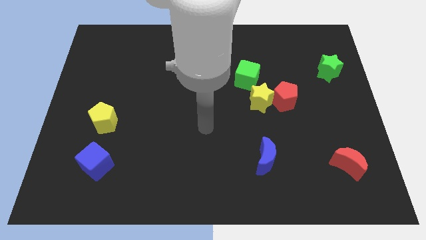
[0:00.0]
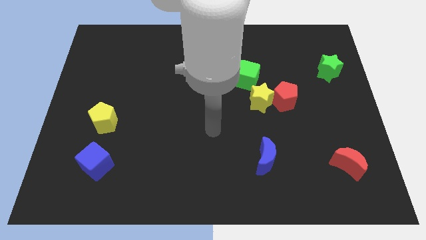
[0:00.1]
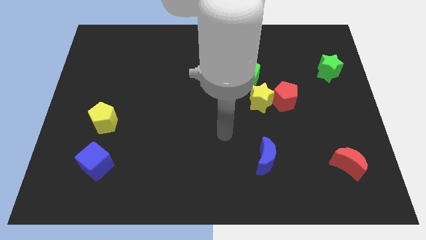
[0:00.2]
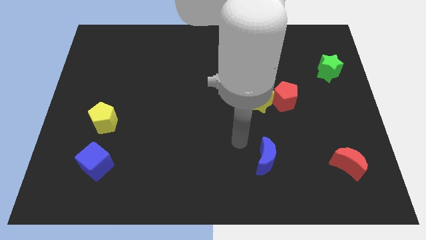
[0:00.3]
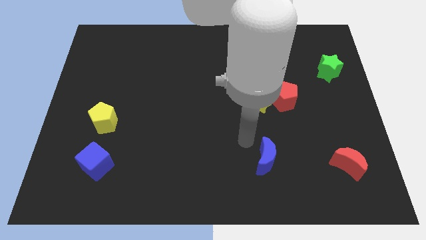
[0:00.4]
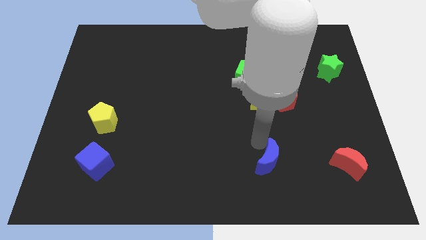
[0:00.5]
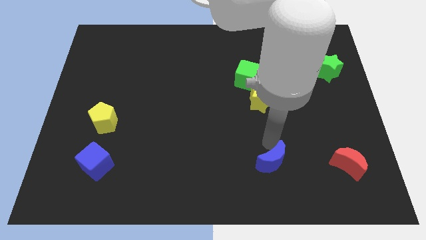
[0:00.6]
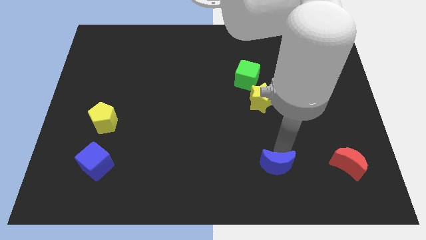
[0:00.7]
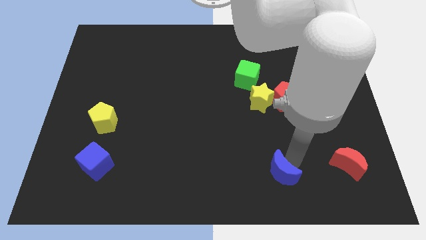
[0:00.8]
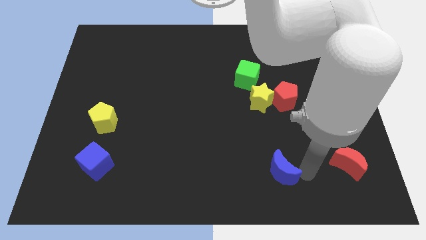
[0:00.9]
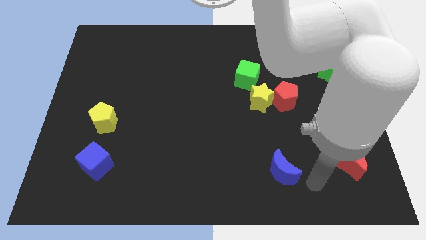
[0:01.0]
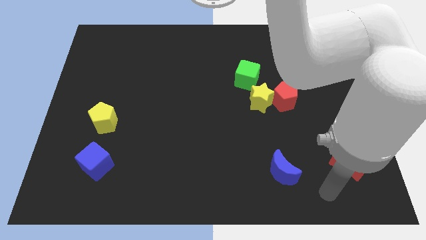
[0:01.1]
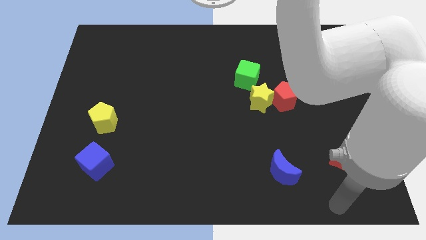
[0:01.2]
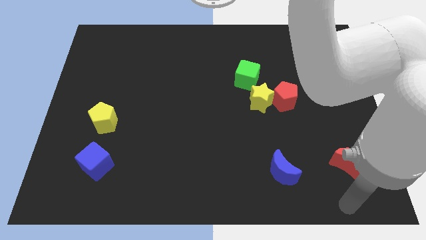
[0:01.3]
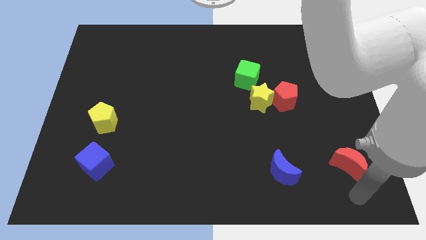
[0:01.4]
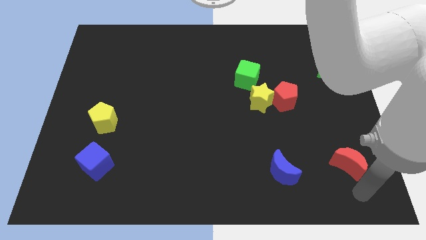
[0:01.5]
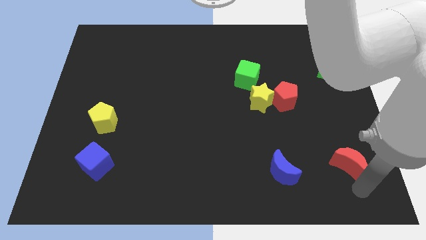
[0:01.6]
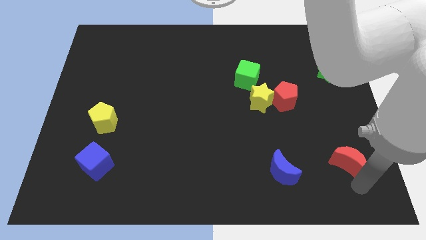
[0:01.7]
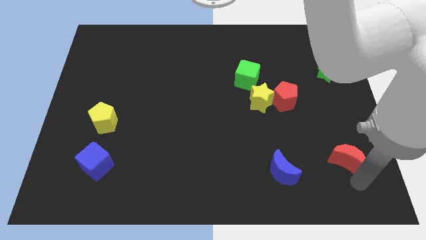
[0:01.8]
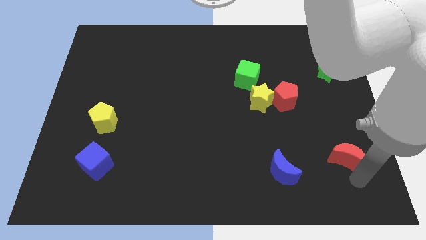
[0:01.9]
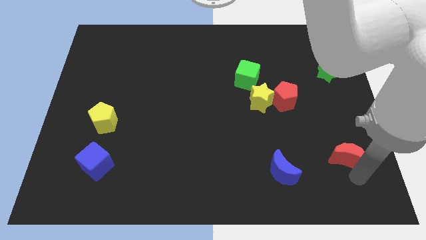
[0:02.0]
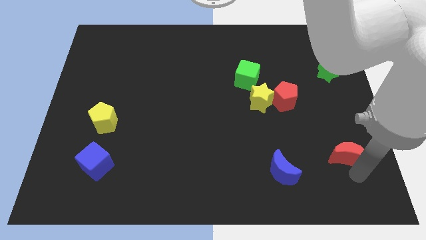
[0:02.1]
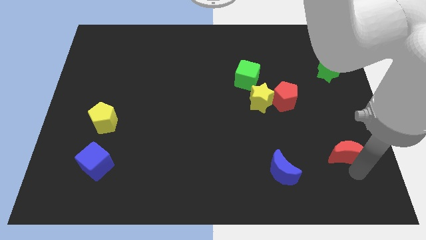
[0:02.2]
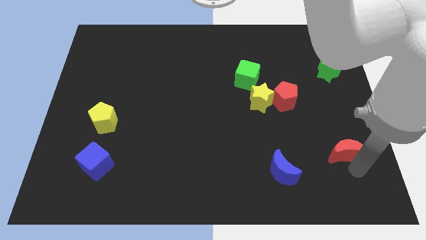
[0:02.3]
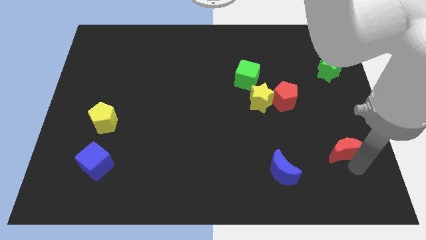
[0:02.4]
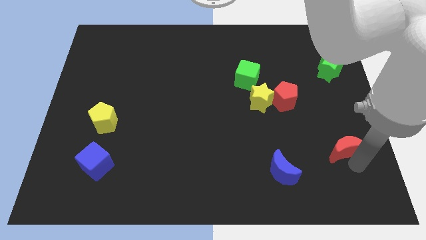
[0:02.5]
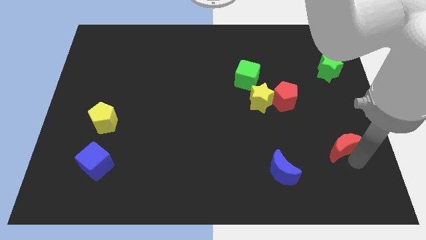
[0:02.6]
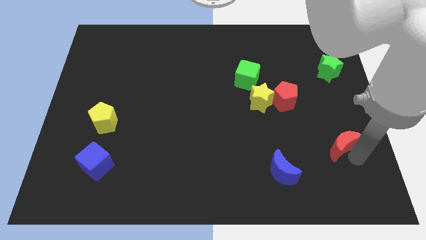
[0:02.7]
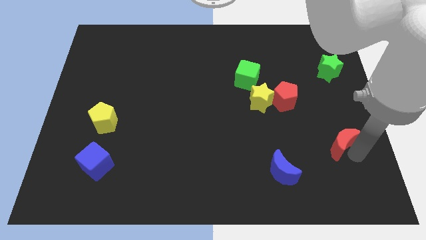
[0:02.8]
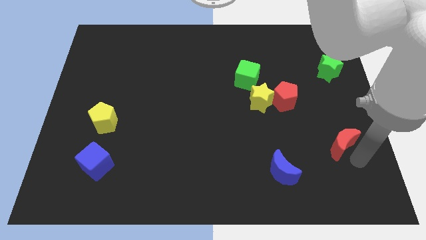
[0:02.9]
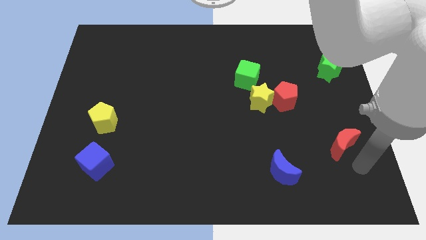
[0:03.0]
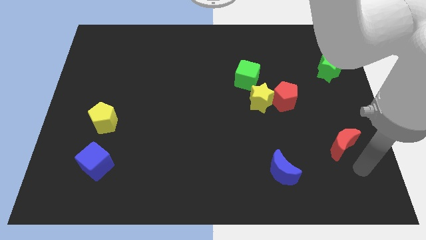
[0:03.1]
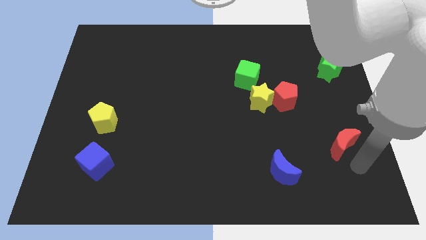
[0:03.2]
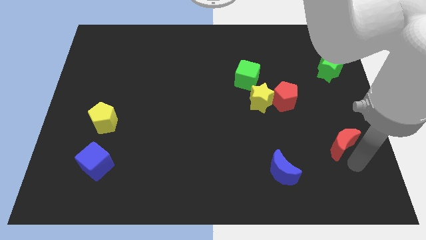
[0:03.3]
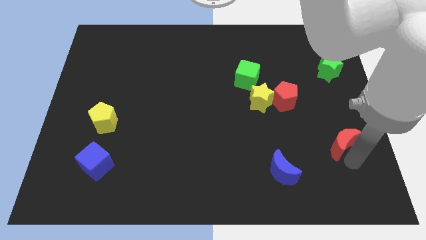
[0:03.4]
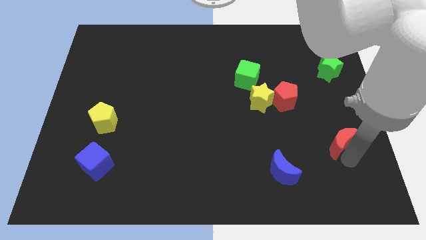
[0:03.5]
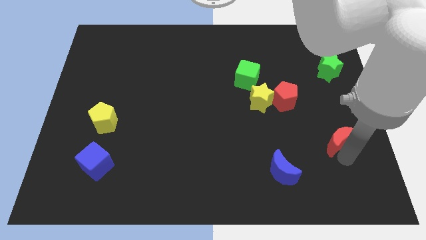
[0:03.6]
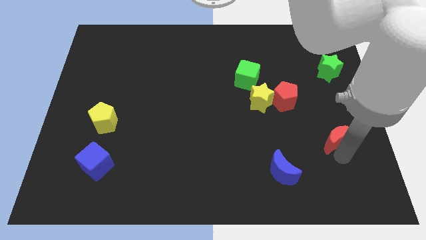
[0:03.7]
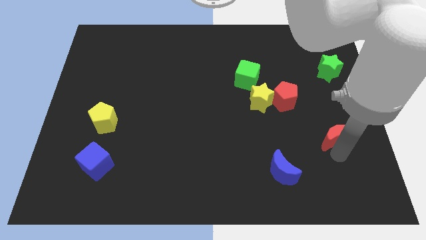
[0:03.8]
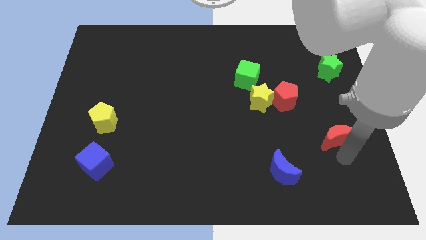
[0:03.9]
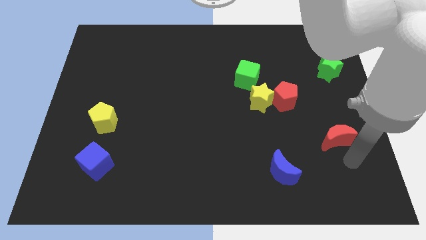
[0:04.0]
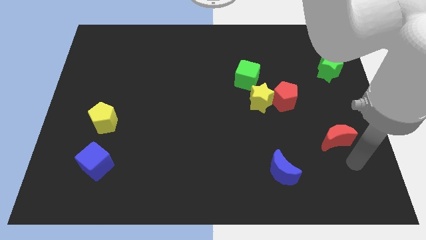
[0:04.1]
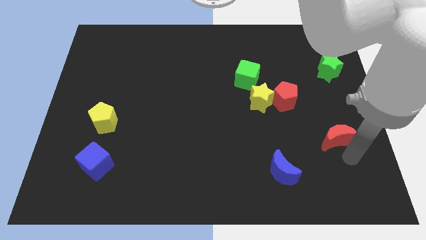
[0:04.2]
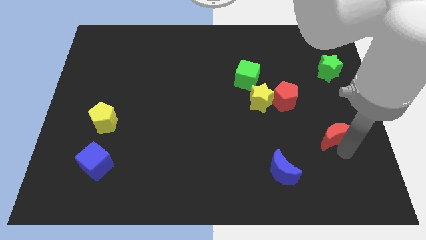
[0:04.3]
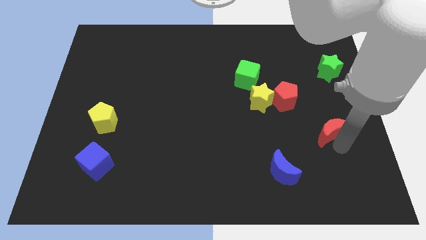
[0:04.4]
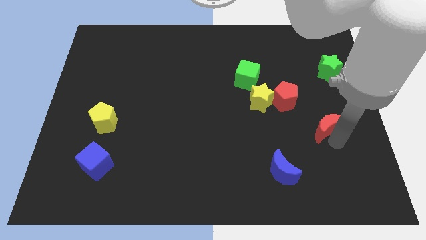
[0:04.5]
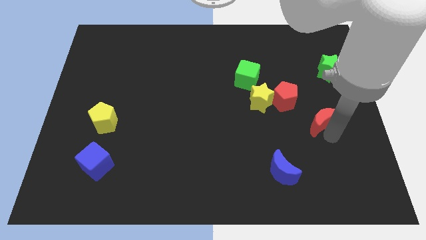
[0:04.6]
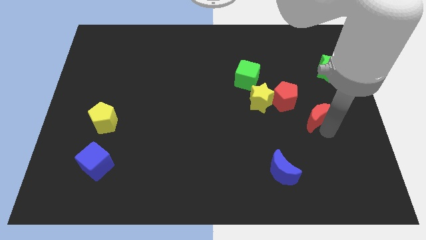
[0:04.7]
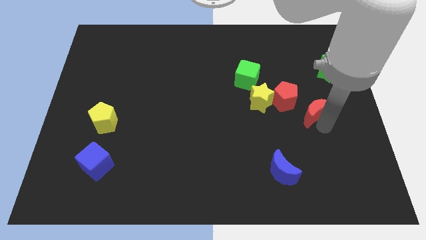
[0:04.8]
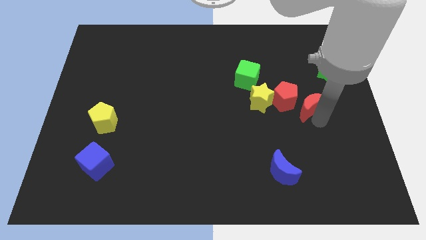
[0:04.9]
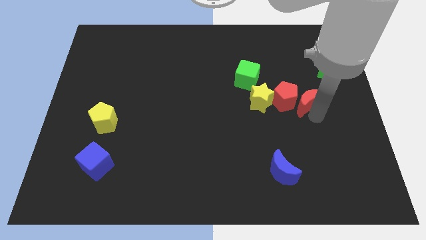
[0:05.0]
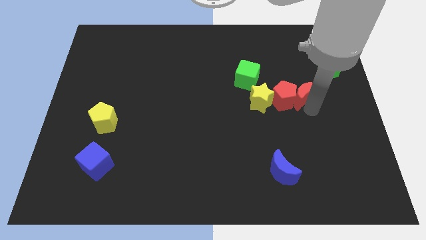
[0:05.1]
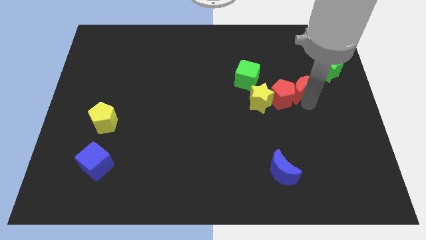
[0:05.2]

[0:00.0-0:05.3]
slide the red moon just right of the green cube

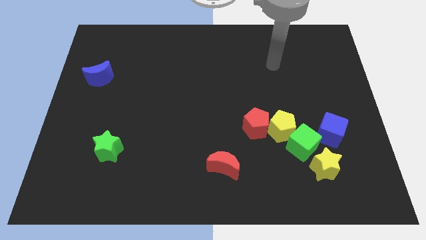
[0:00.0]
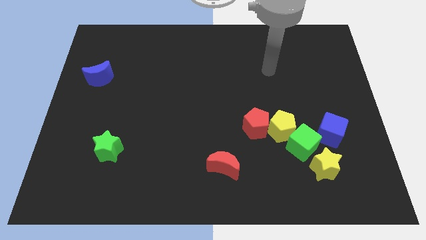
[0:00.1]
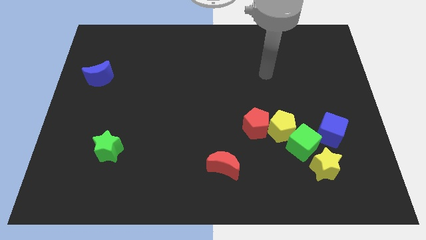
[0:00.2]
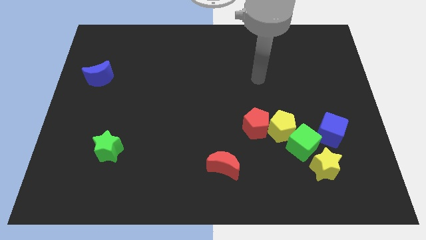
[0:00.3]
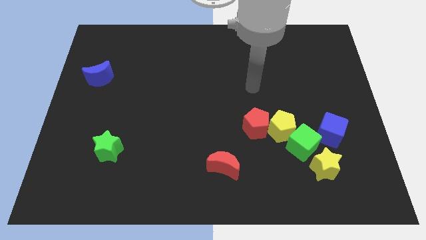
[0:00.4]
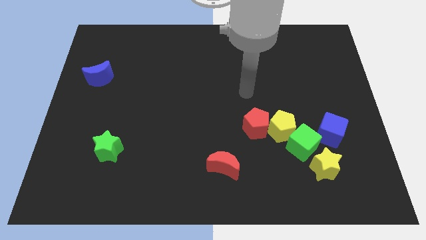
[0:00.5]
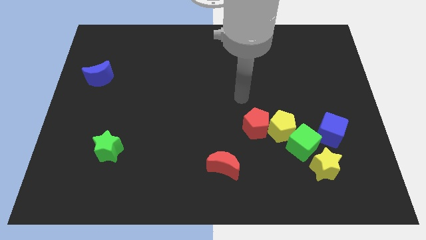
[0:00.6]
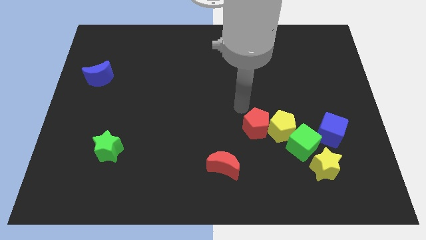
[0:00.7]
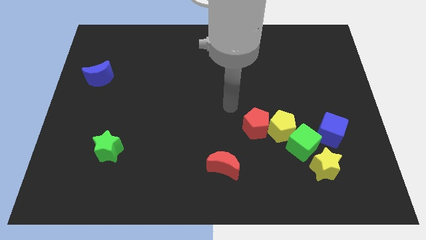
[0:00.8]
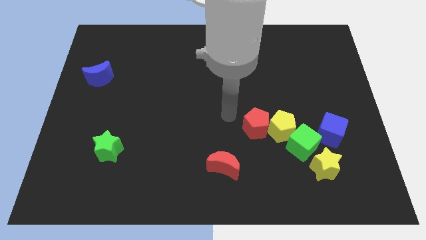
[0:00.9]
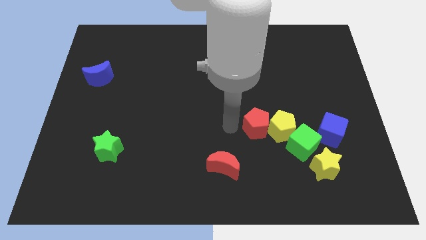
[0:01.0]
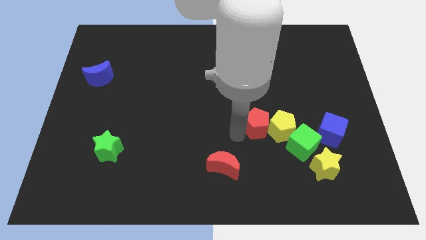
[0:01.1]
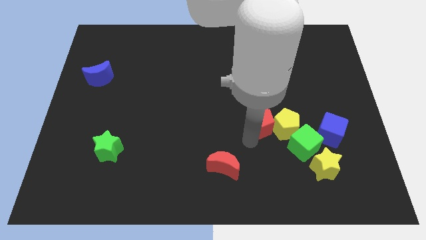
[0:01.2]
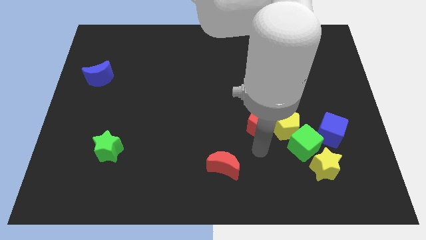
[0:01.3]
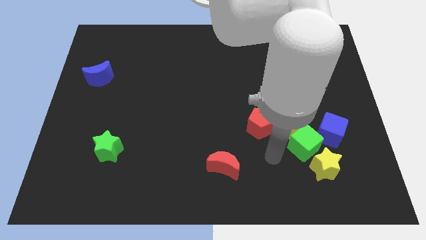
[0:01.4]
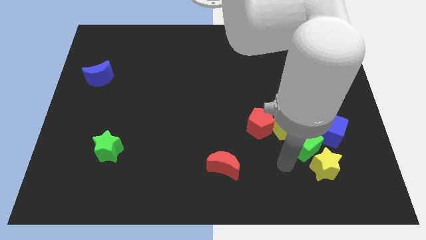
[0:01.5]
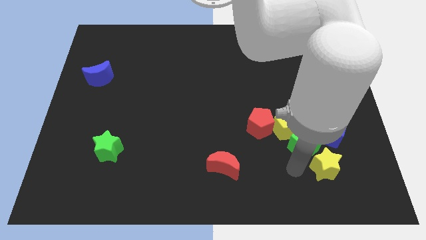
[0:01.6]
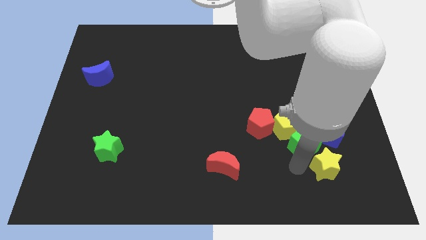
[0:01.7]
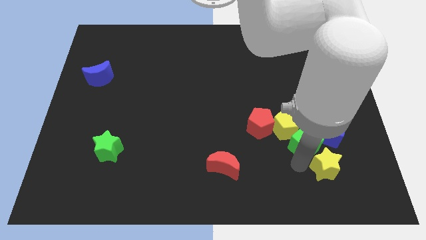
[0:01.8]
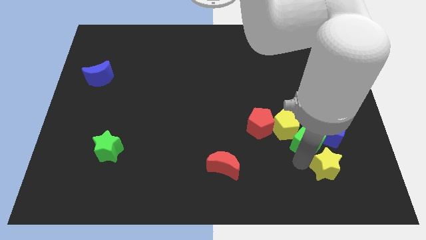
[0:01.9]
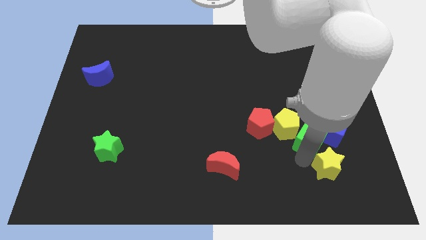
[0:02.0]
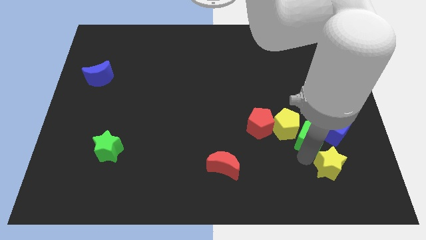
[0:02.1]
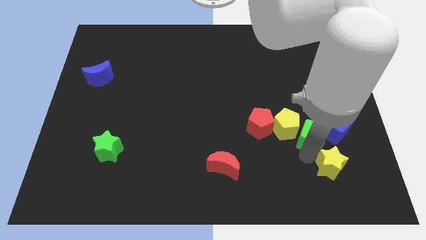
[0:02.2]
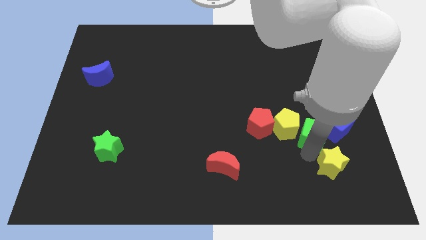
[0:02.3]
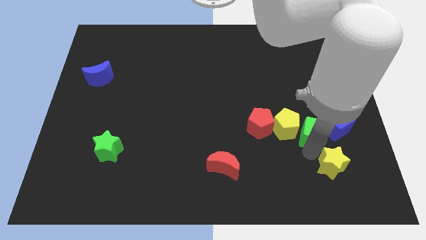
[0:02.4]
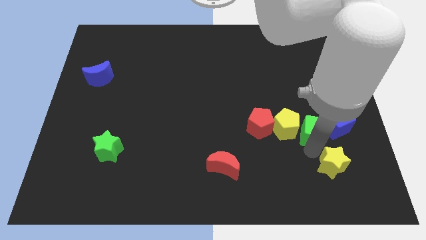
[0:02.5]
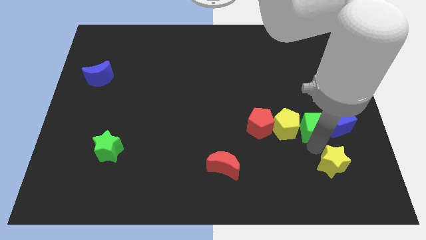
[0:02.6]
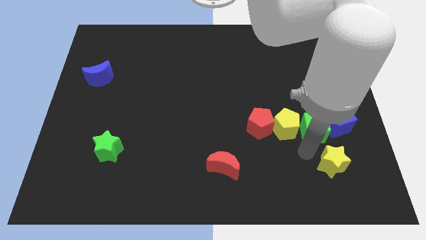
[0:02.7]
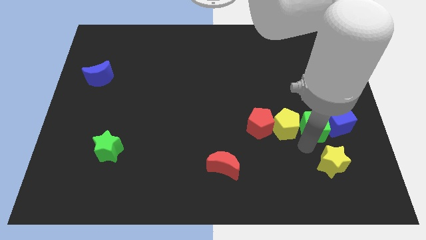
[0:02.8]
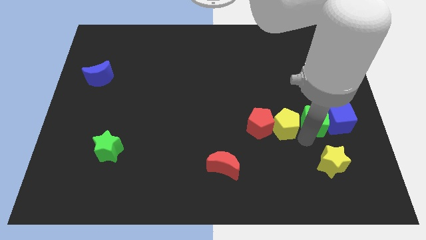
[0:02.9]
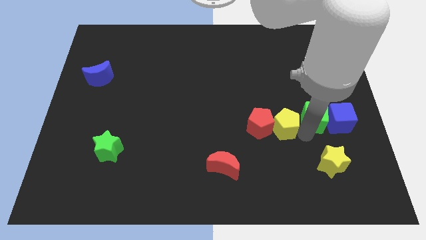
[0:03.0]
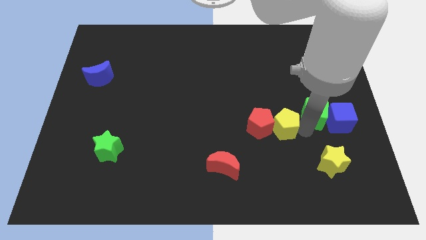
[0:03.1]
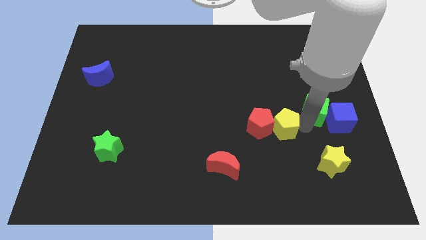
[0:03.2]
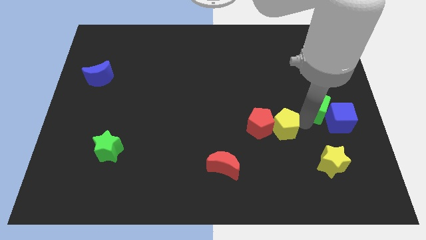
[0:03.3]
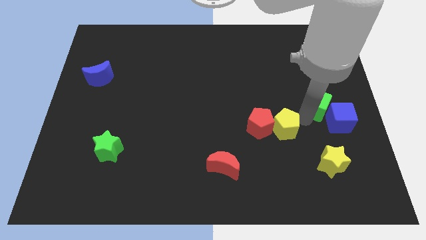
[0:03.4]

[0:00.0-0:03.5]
push the green cube to the top of the blue cube
